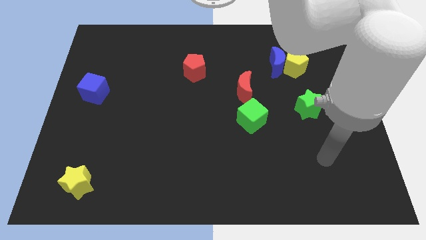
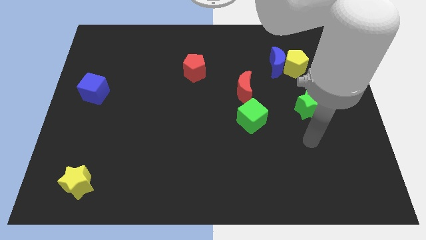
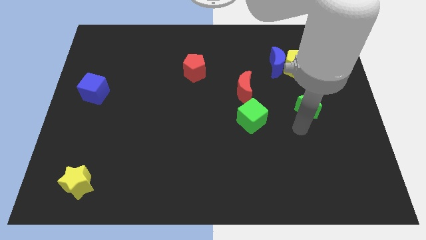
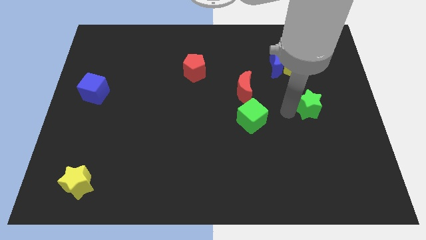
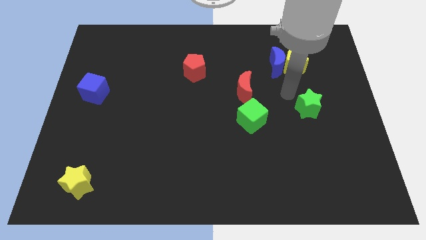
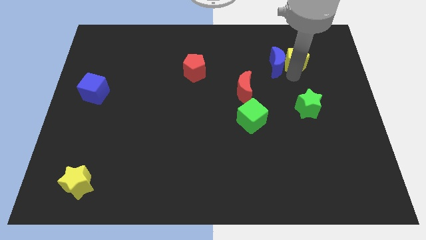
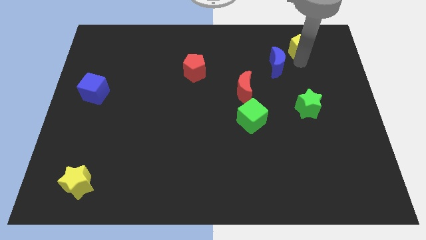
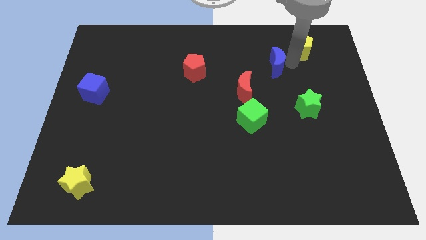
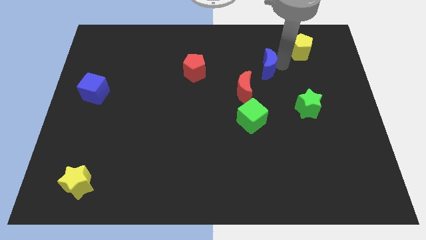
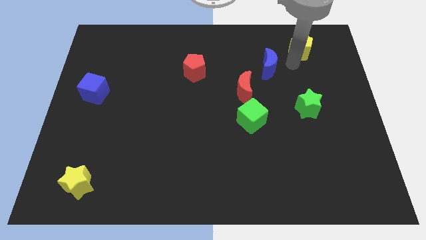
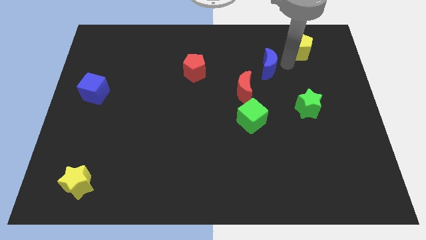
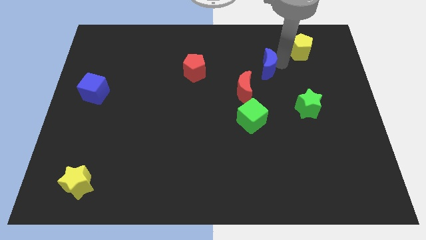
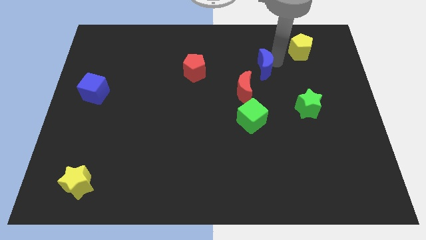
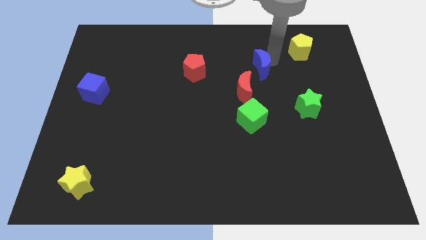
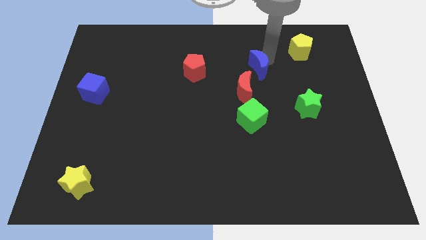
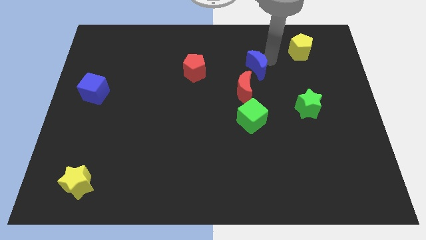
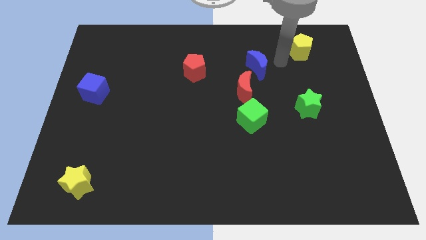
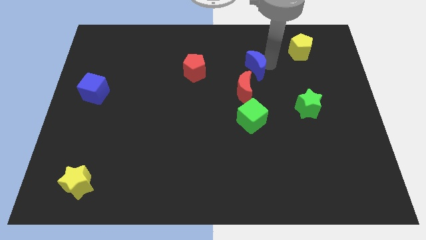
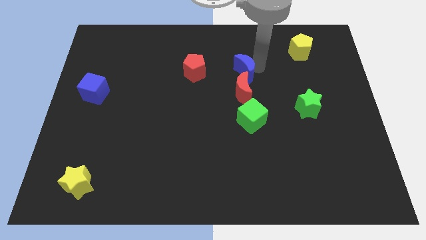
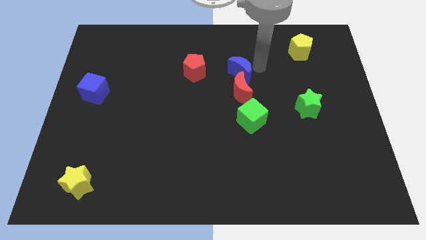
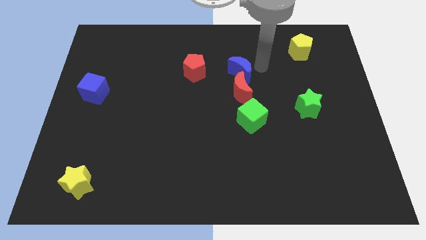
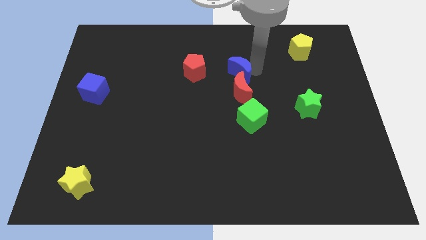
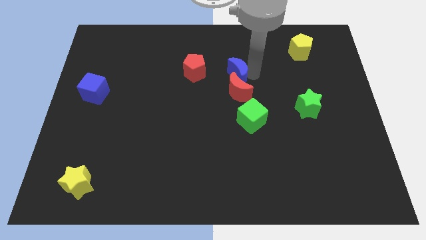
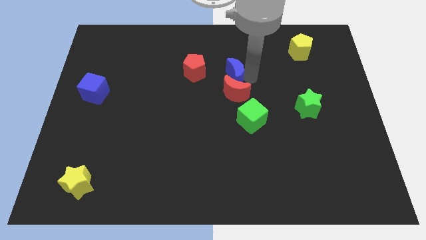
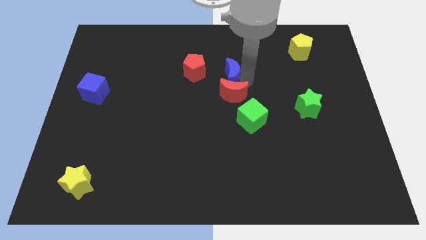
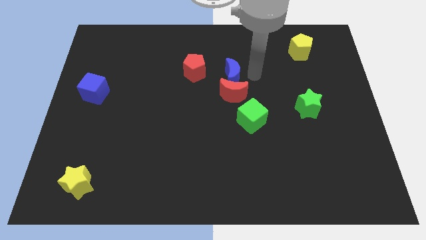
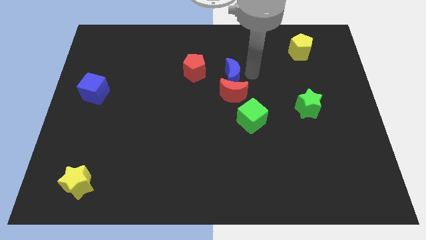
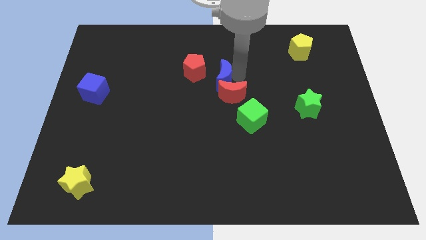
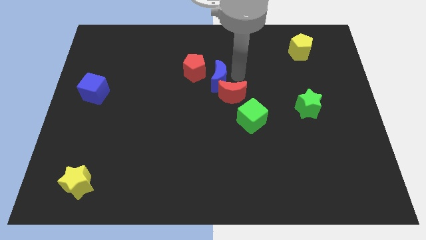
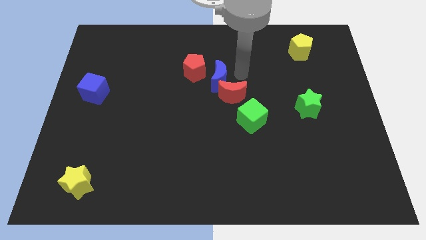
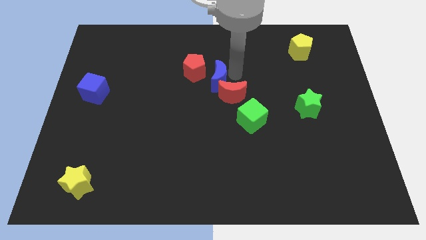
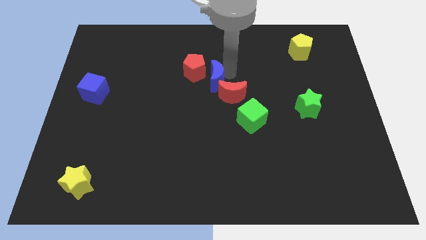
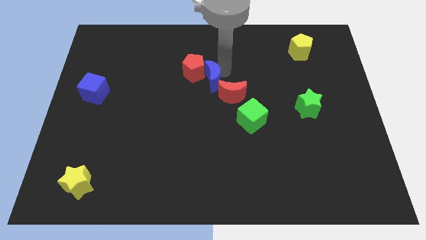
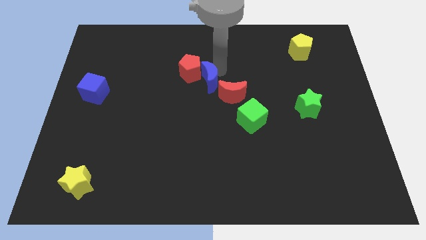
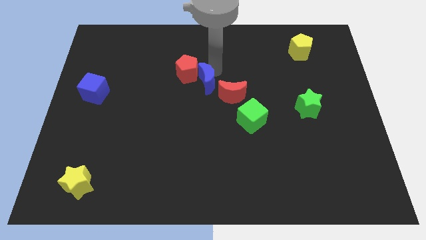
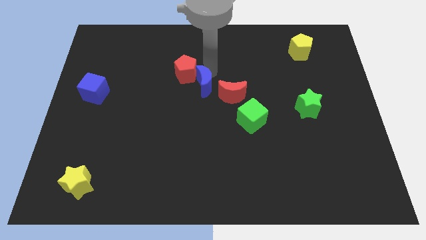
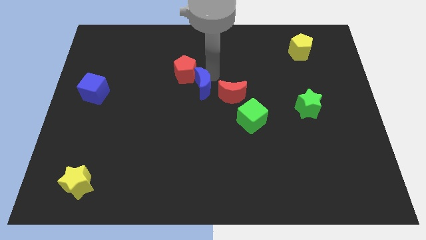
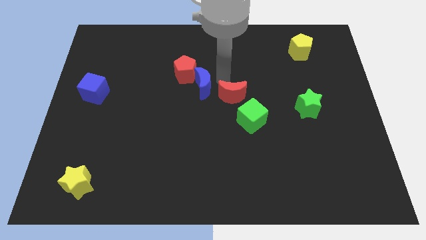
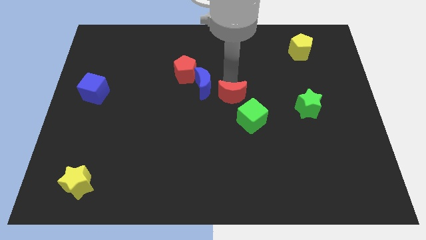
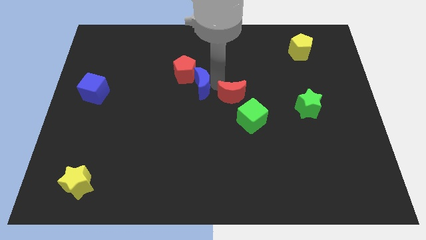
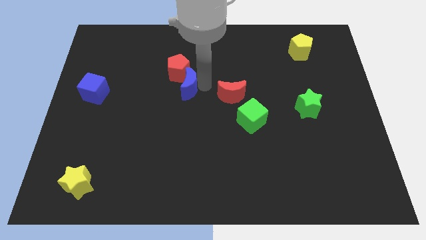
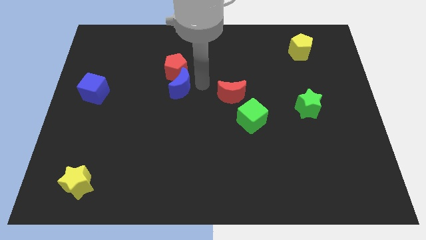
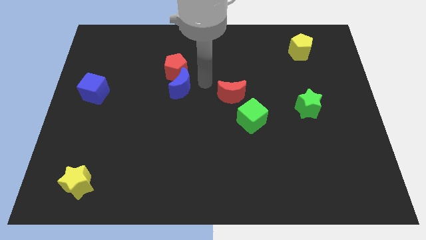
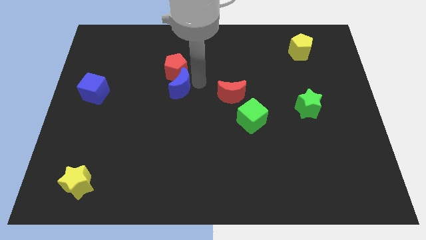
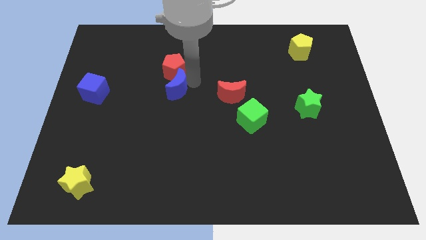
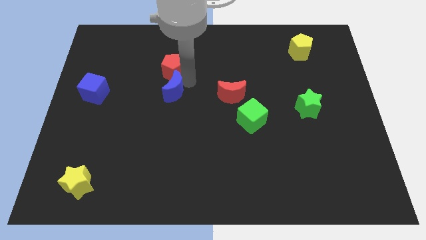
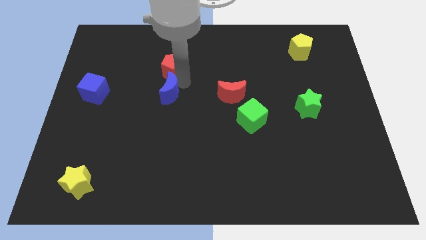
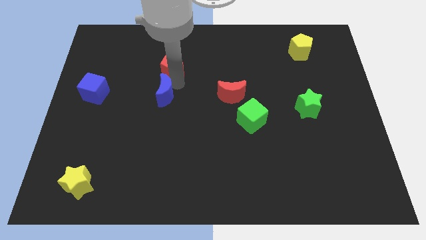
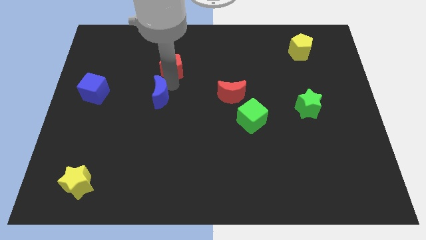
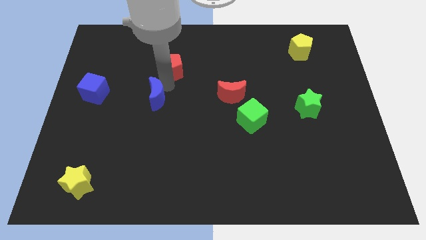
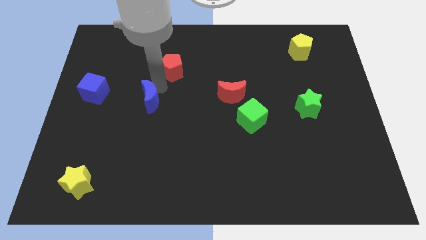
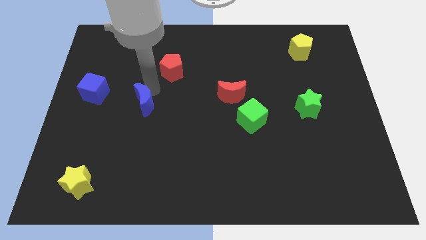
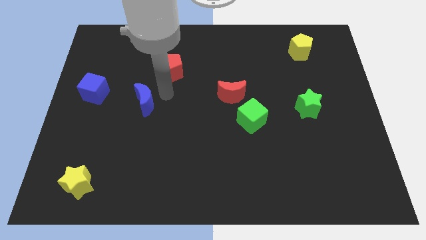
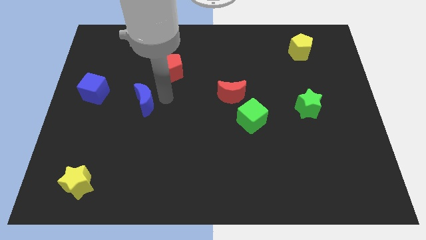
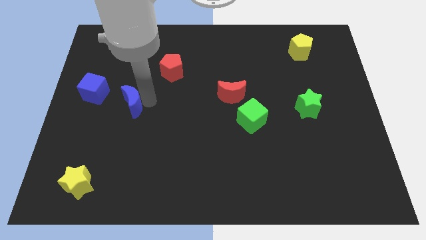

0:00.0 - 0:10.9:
slide the blue moon to the bottom right of the blue cube

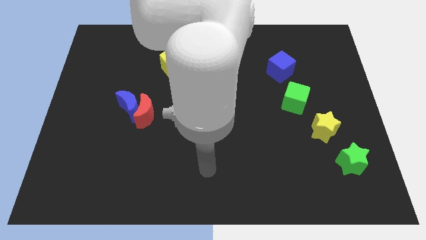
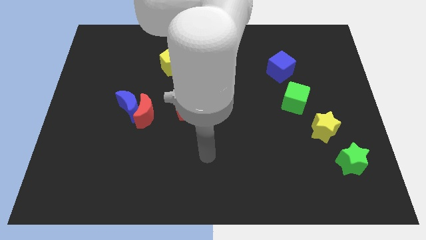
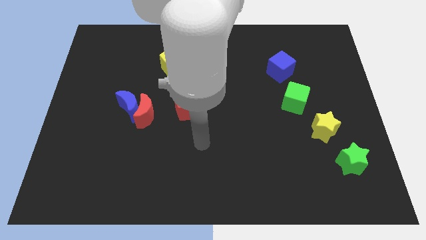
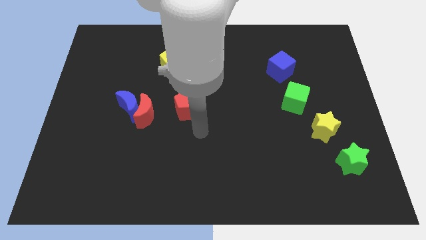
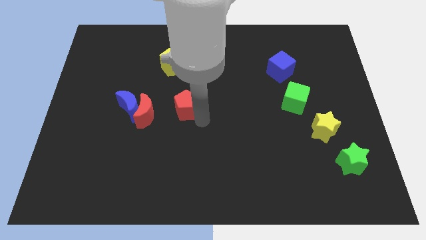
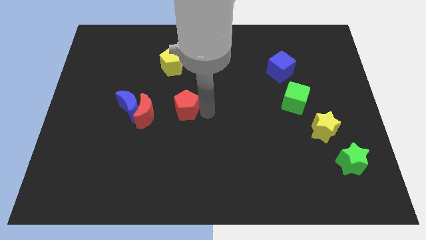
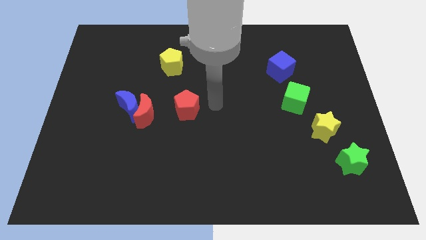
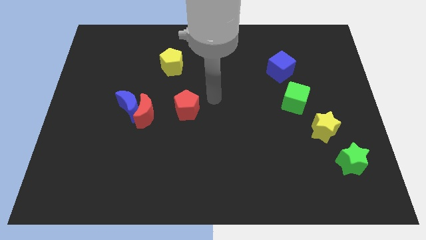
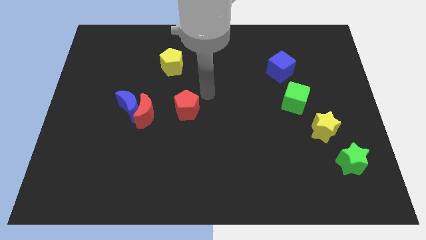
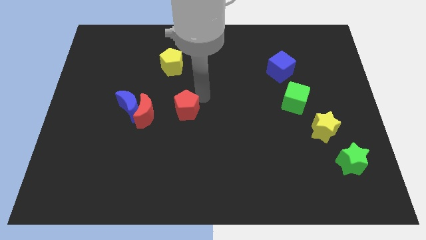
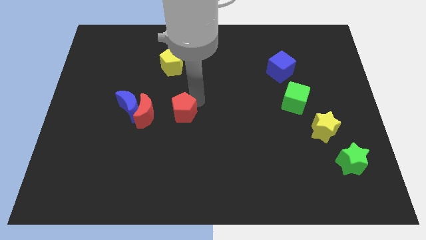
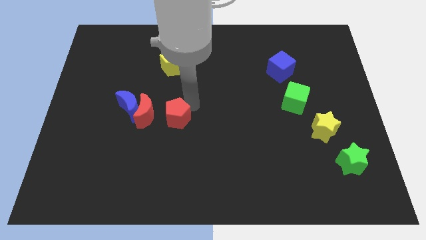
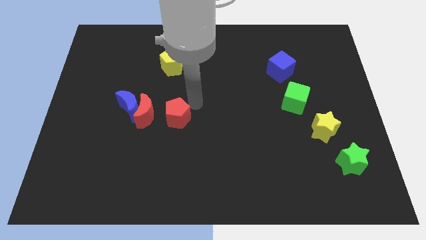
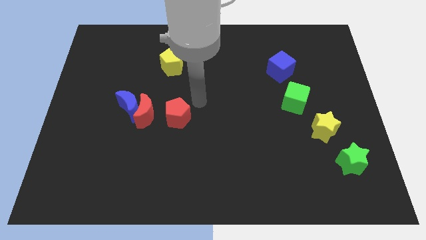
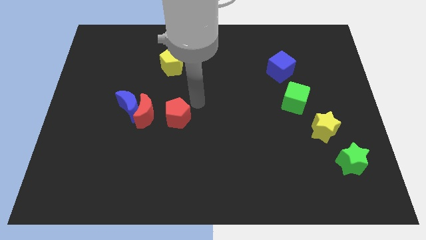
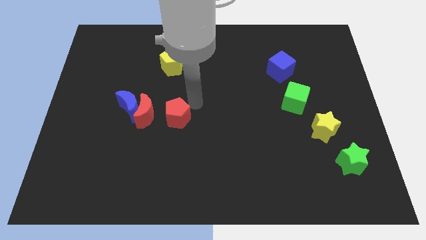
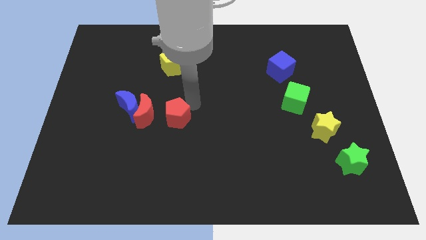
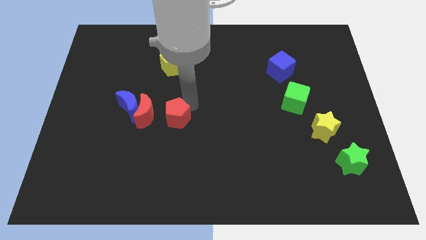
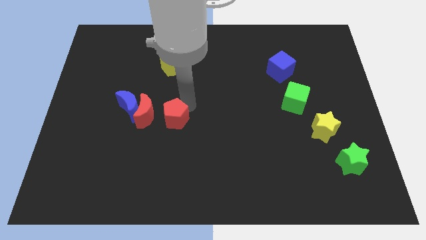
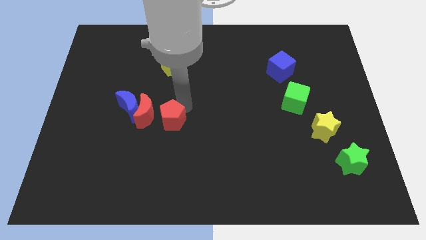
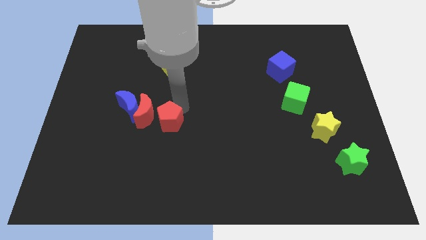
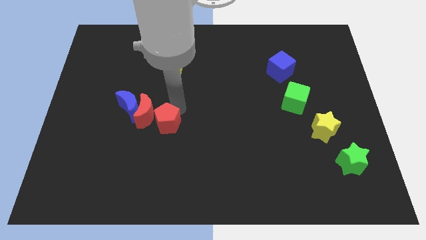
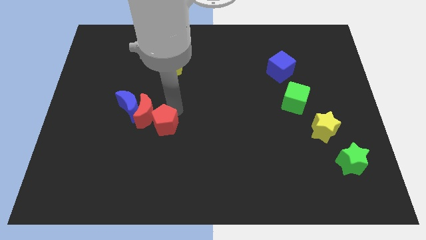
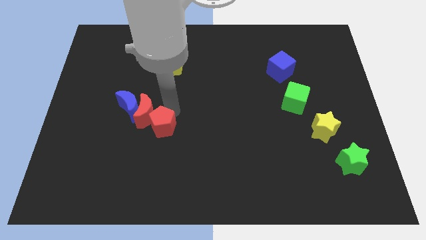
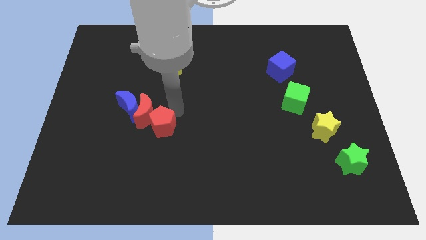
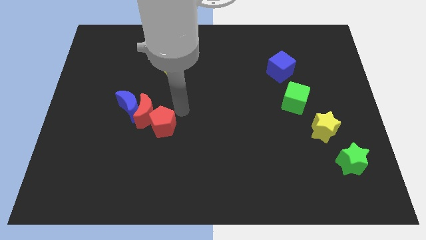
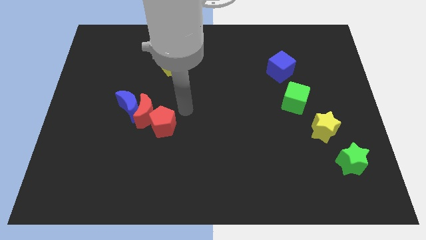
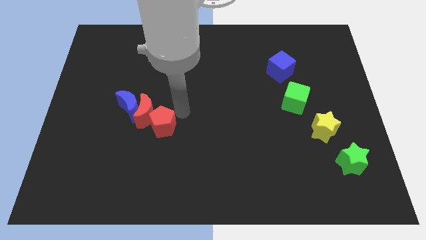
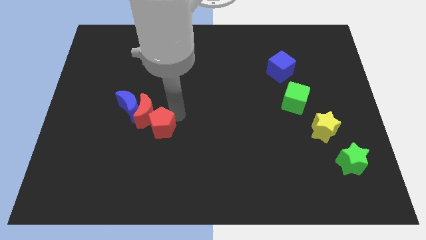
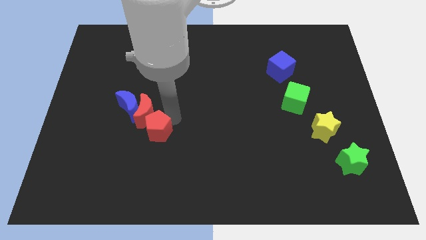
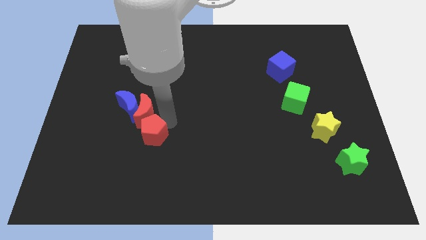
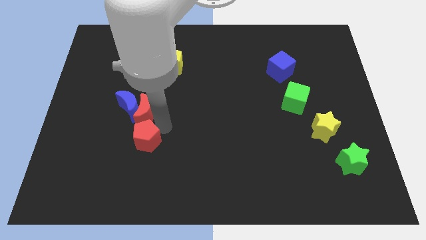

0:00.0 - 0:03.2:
put the red pentagon below the blue moon
